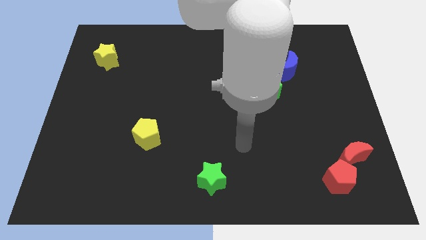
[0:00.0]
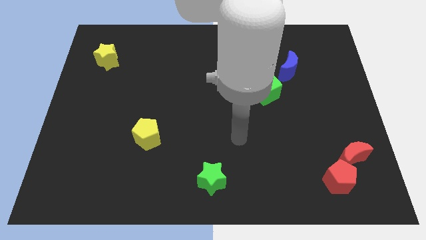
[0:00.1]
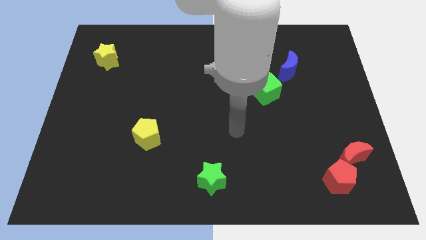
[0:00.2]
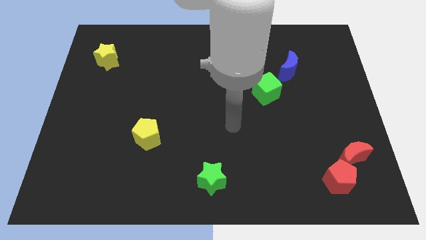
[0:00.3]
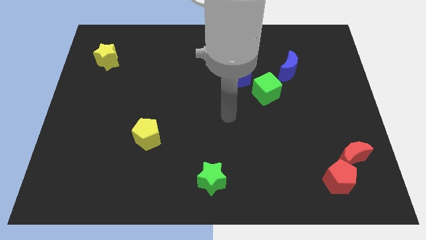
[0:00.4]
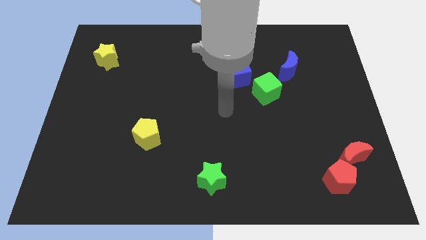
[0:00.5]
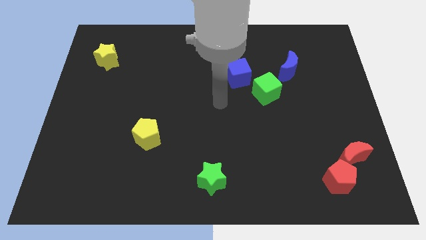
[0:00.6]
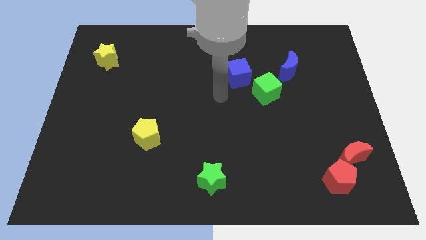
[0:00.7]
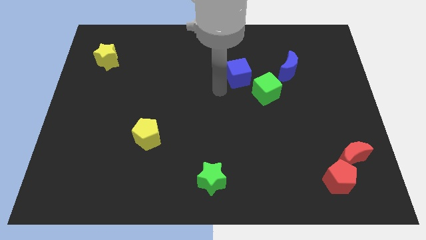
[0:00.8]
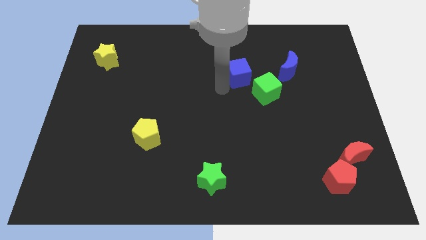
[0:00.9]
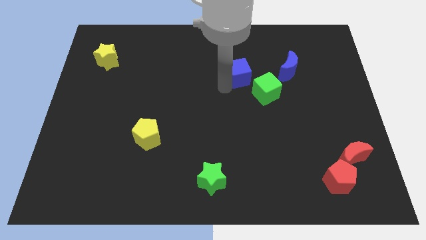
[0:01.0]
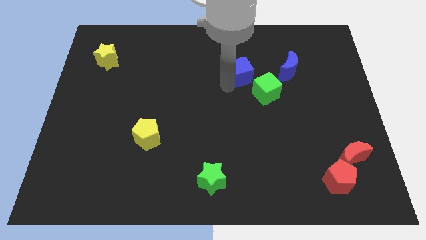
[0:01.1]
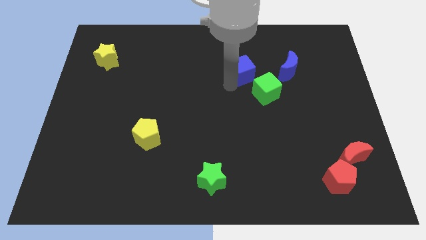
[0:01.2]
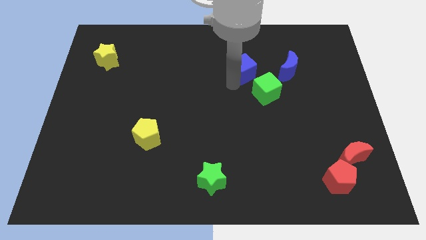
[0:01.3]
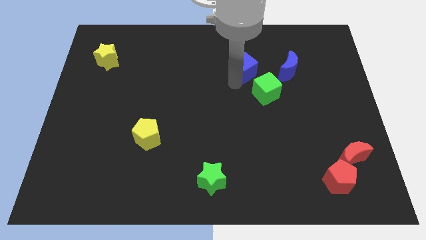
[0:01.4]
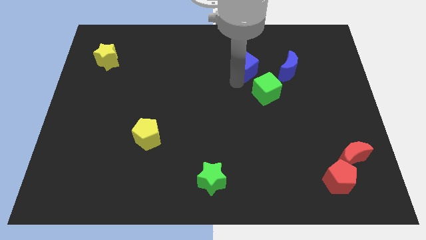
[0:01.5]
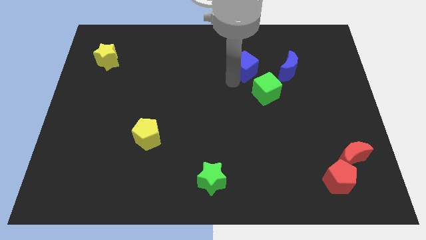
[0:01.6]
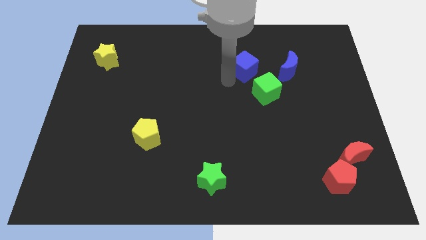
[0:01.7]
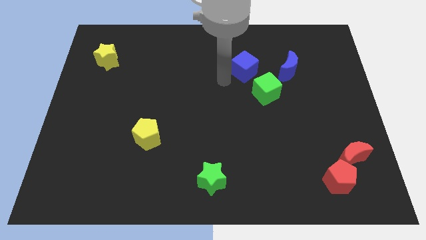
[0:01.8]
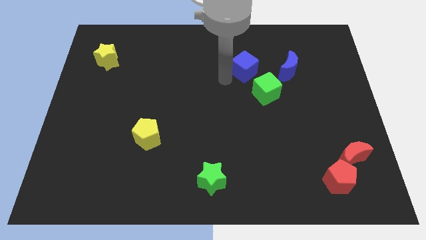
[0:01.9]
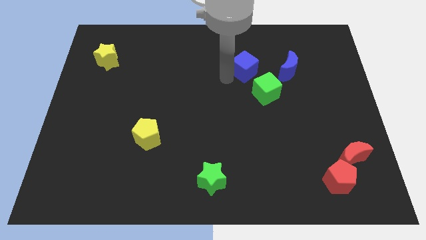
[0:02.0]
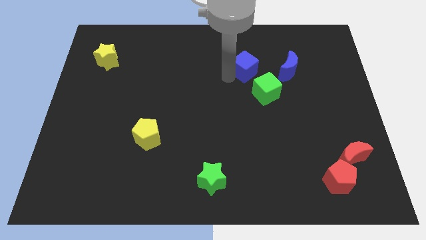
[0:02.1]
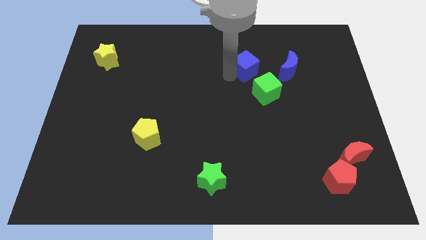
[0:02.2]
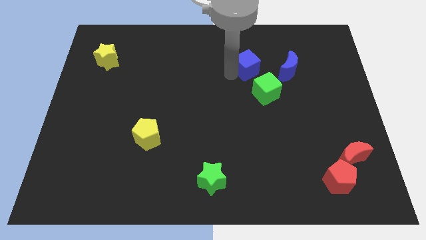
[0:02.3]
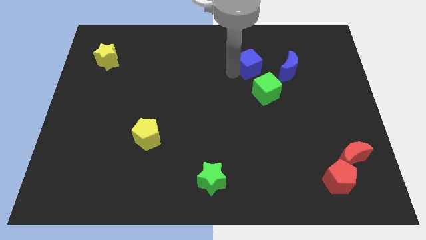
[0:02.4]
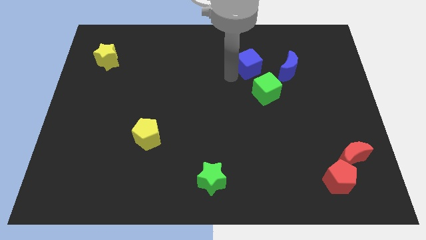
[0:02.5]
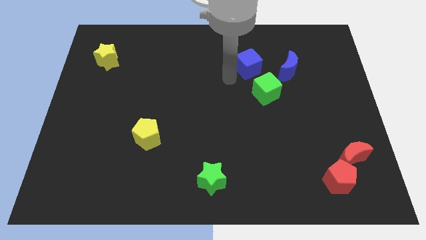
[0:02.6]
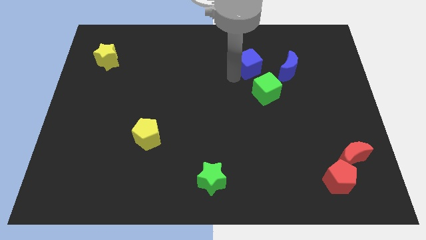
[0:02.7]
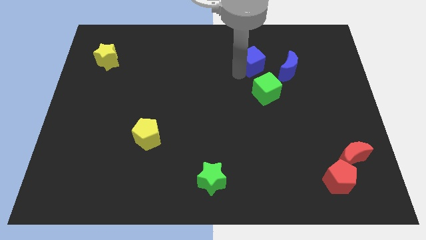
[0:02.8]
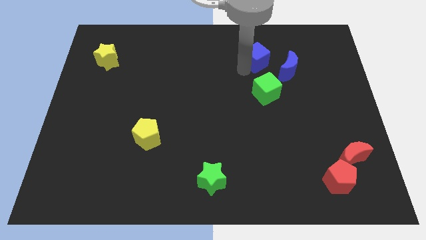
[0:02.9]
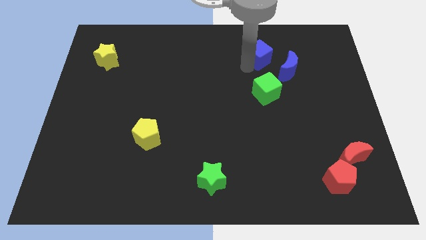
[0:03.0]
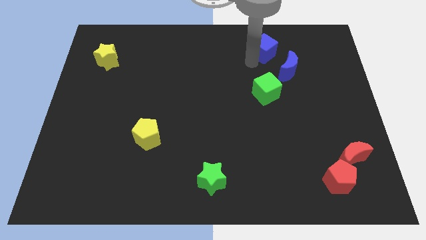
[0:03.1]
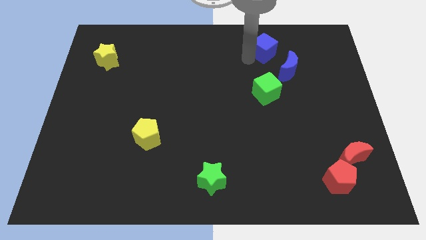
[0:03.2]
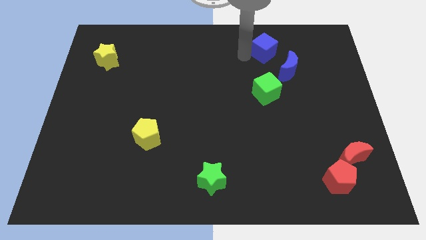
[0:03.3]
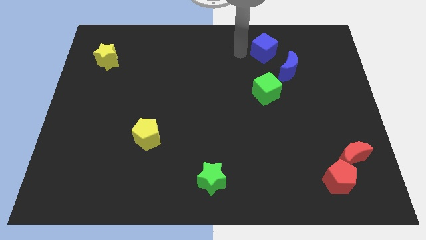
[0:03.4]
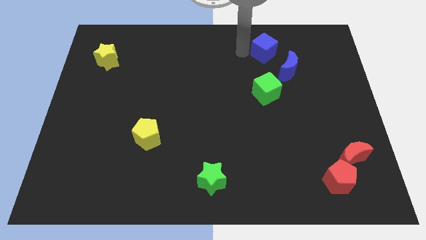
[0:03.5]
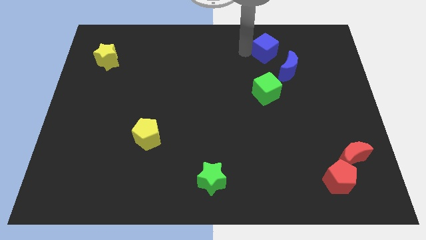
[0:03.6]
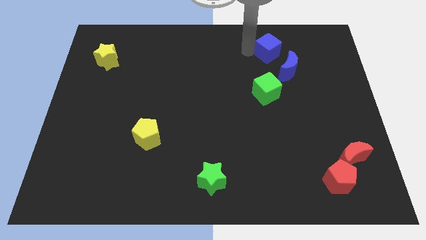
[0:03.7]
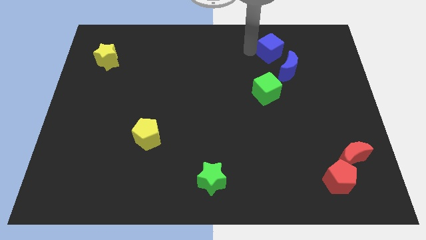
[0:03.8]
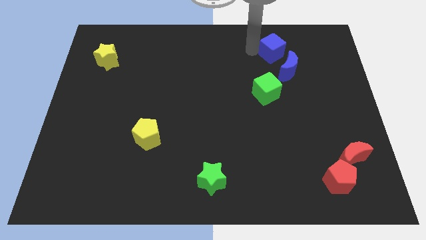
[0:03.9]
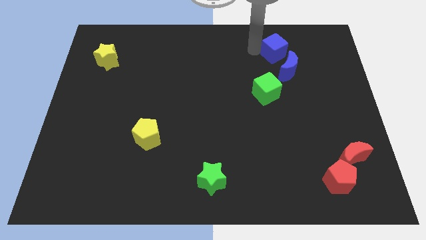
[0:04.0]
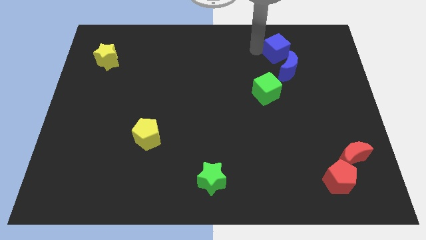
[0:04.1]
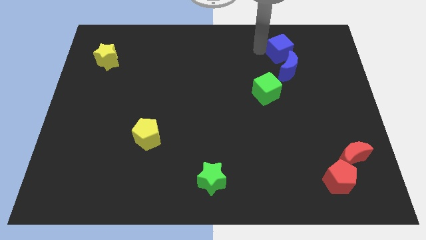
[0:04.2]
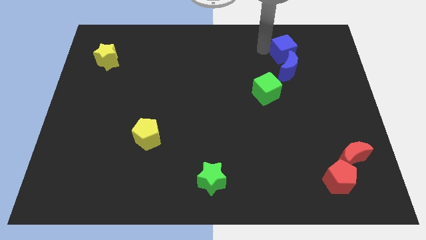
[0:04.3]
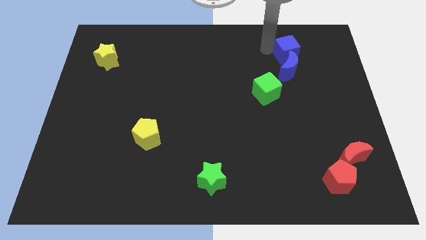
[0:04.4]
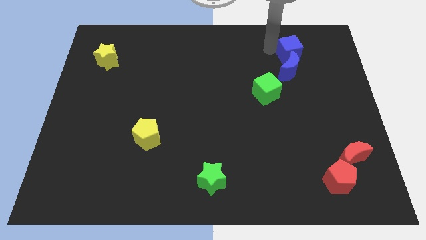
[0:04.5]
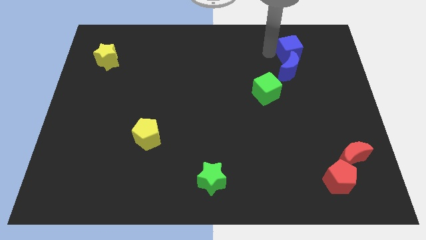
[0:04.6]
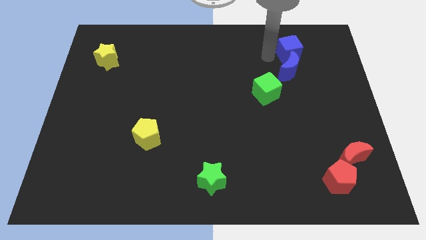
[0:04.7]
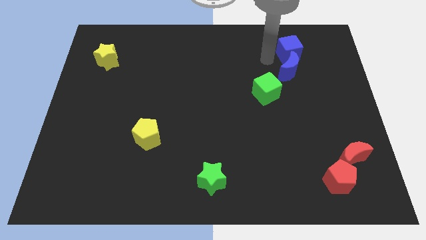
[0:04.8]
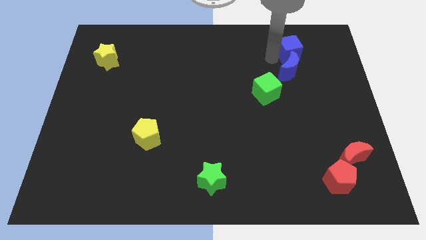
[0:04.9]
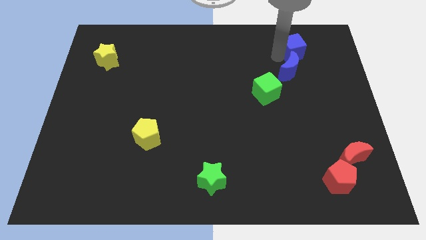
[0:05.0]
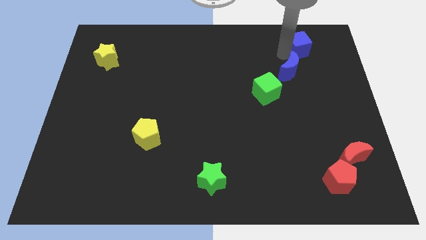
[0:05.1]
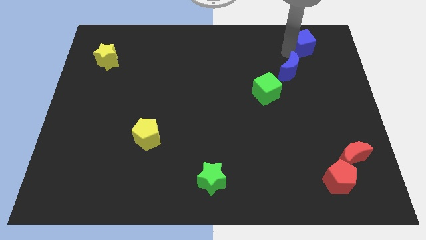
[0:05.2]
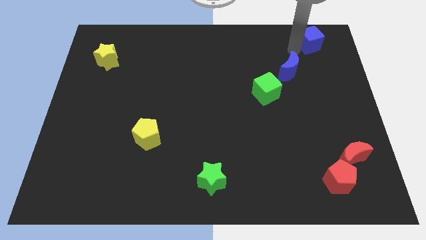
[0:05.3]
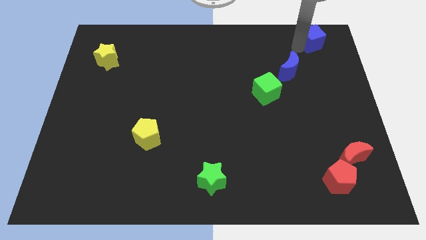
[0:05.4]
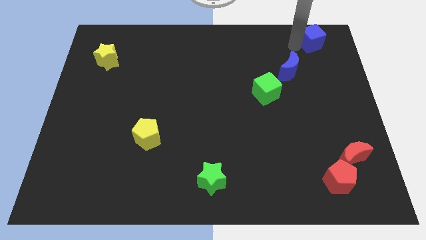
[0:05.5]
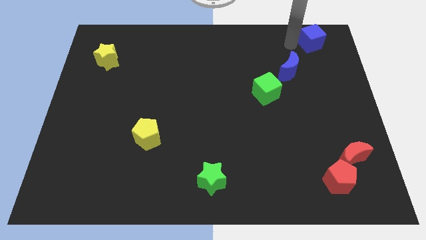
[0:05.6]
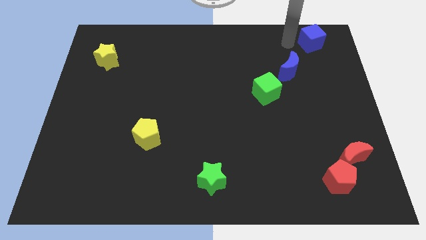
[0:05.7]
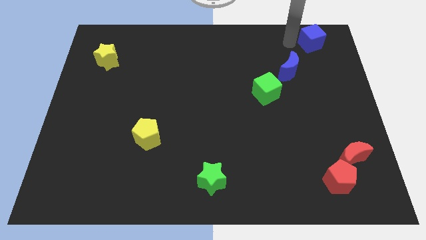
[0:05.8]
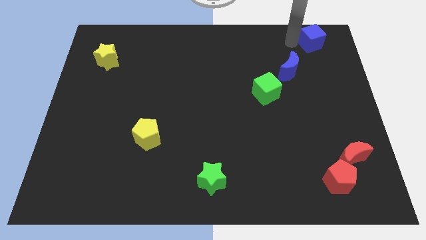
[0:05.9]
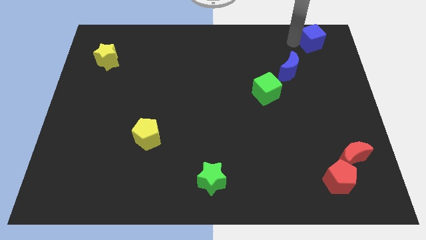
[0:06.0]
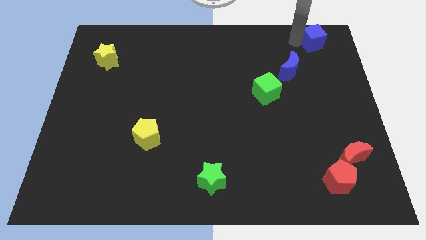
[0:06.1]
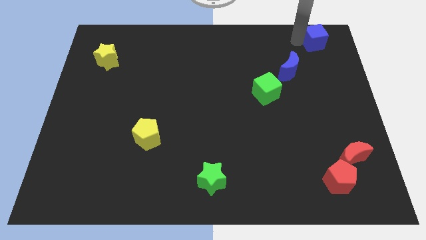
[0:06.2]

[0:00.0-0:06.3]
push the blue cube to the top right of the board

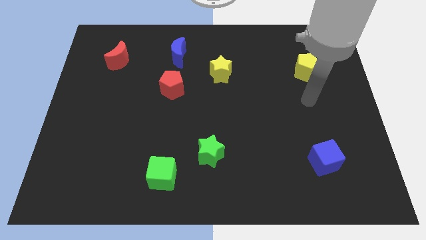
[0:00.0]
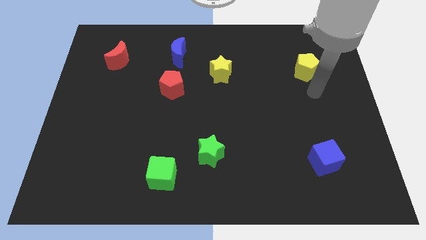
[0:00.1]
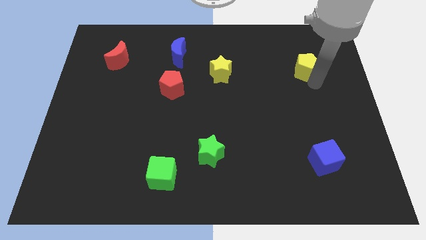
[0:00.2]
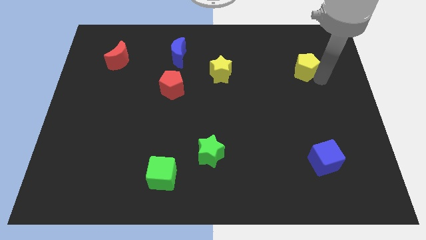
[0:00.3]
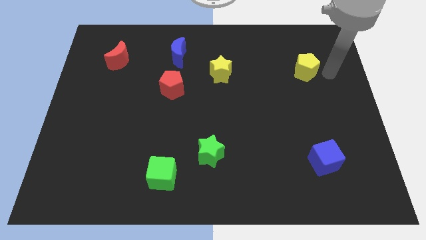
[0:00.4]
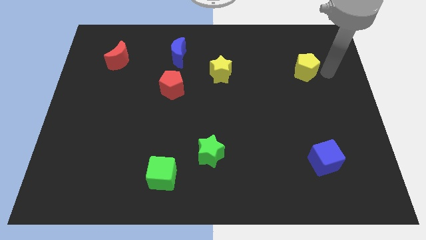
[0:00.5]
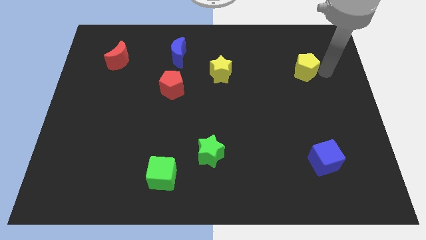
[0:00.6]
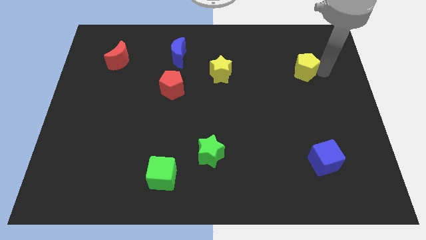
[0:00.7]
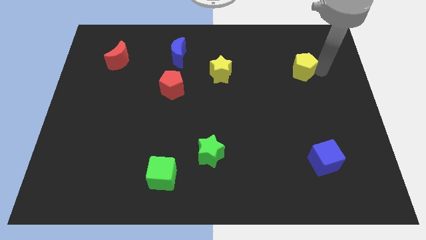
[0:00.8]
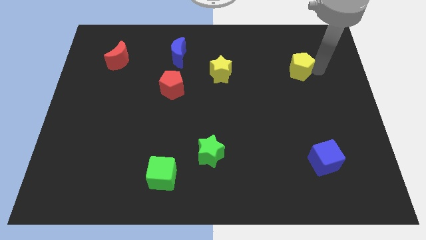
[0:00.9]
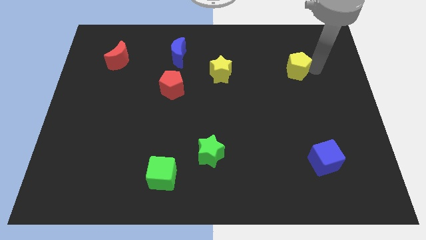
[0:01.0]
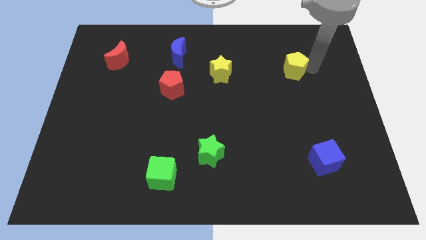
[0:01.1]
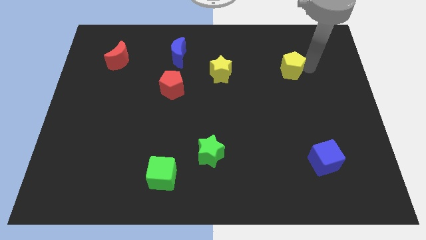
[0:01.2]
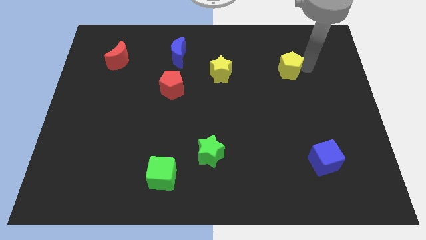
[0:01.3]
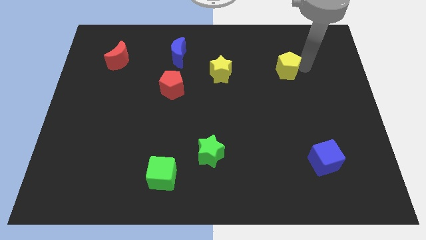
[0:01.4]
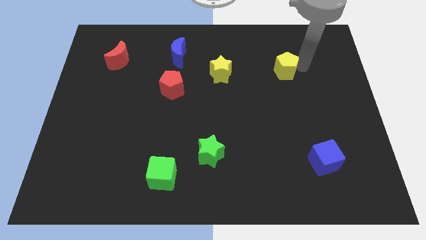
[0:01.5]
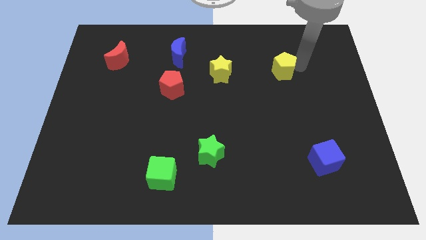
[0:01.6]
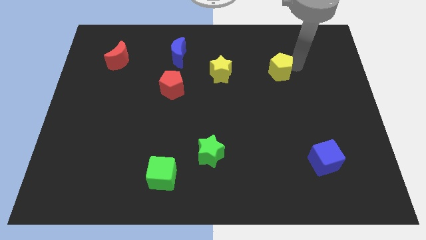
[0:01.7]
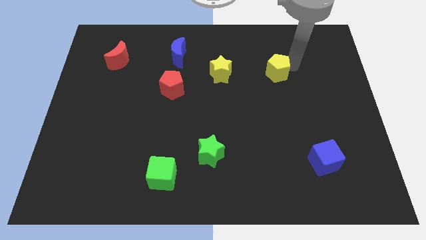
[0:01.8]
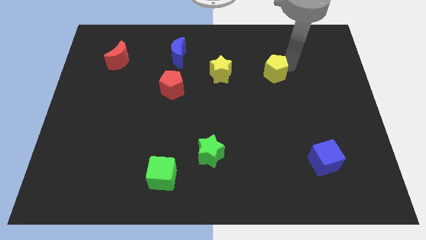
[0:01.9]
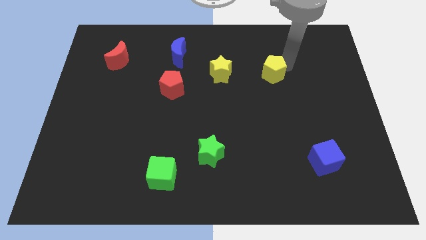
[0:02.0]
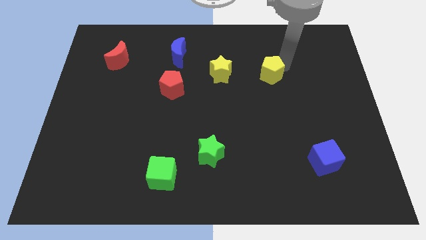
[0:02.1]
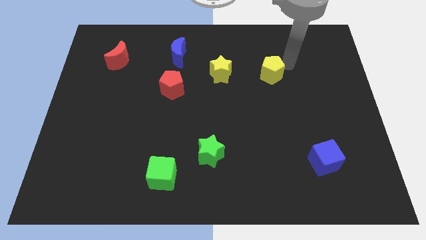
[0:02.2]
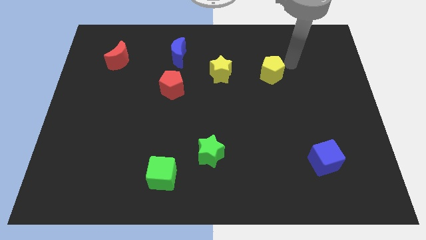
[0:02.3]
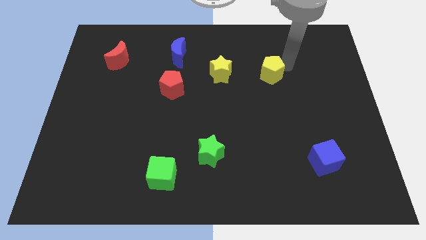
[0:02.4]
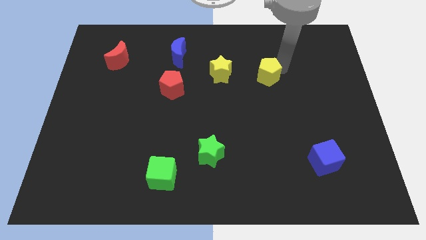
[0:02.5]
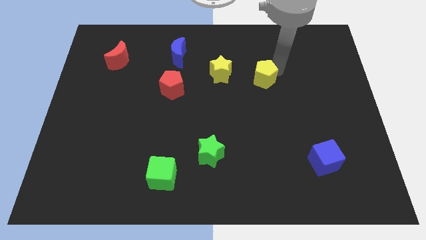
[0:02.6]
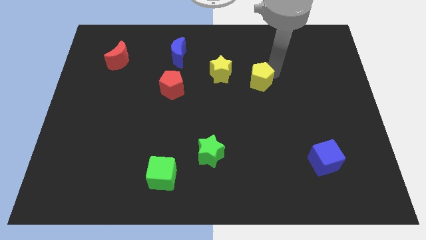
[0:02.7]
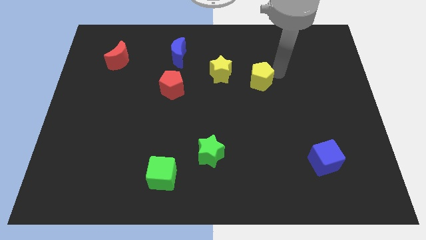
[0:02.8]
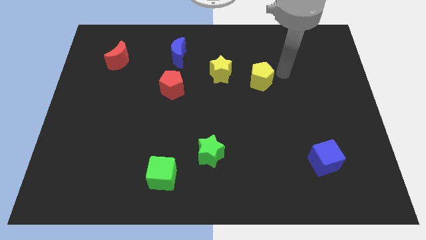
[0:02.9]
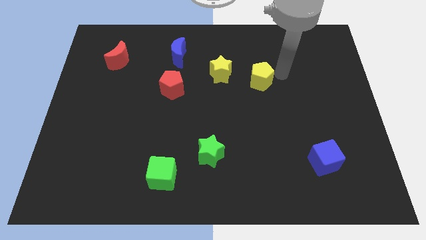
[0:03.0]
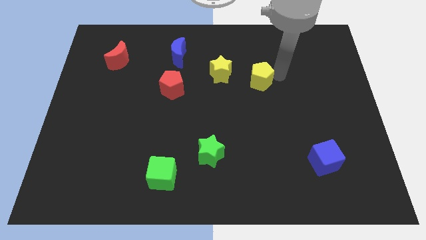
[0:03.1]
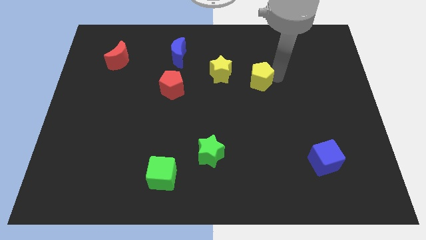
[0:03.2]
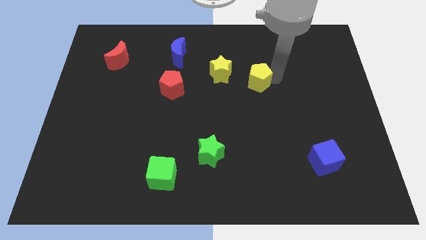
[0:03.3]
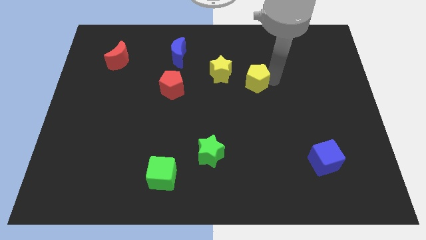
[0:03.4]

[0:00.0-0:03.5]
move the yellow pentagon to the center
